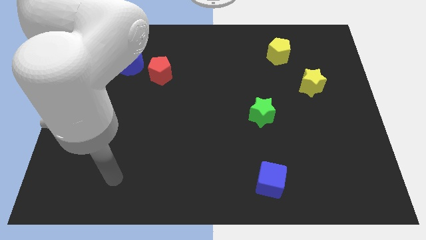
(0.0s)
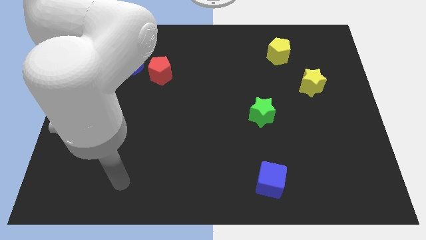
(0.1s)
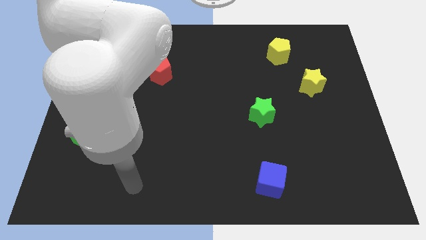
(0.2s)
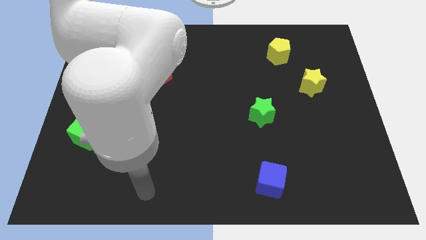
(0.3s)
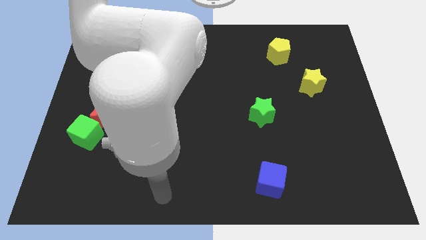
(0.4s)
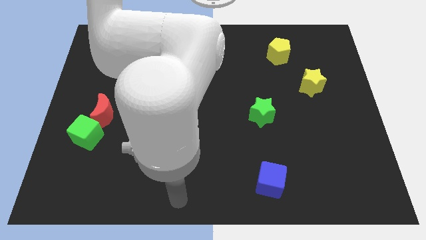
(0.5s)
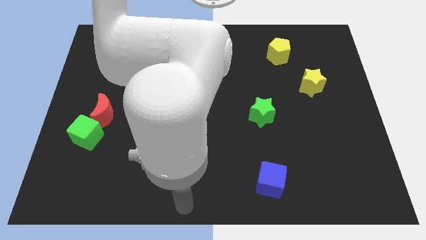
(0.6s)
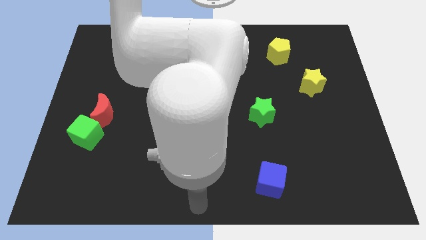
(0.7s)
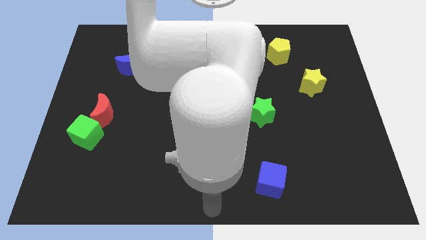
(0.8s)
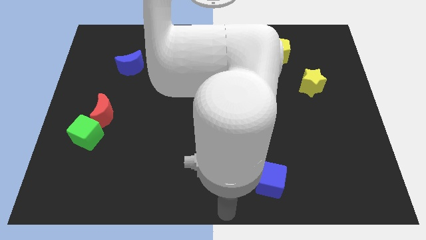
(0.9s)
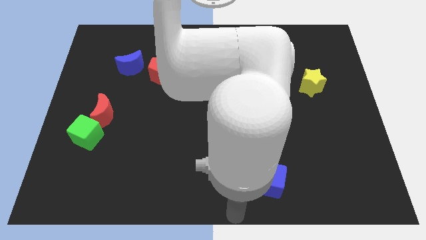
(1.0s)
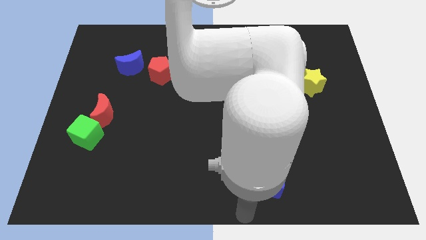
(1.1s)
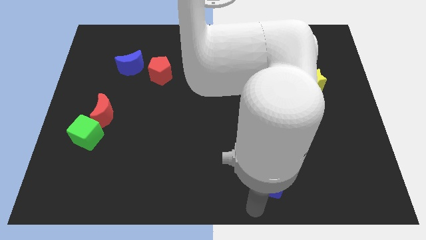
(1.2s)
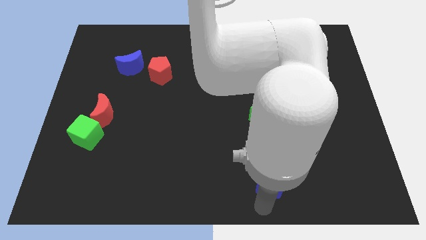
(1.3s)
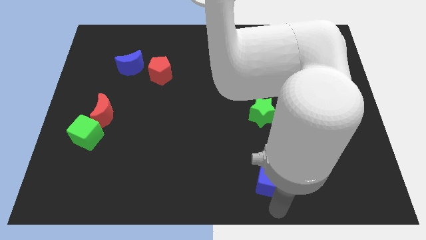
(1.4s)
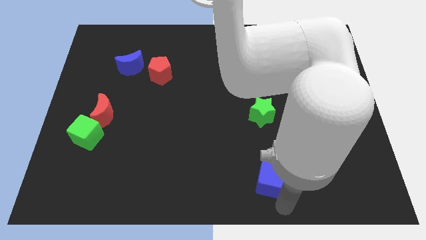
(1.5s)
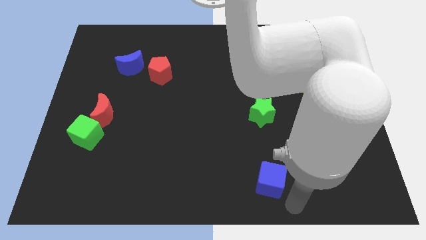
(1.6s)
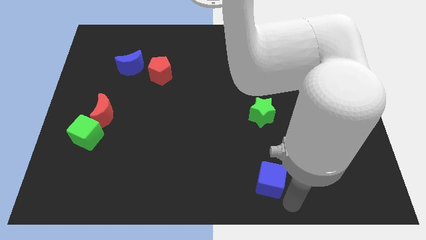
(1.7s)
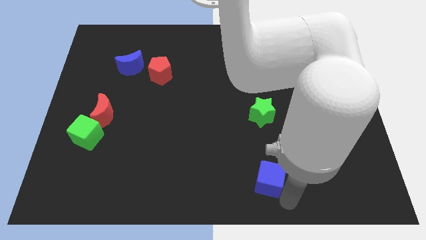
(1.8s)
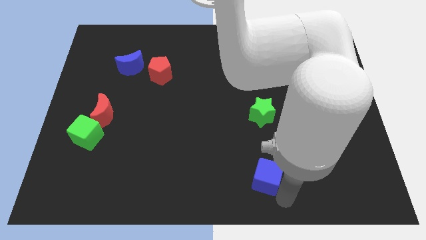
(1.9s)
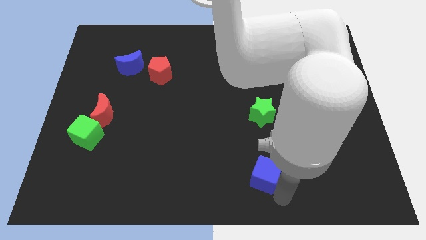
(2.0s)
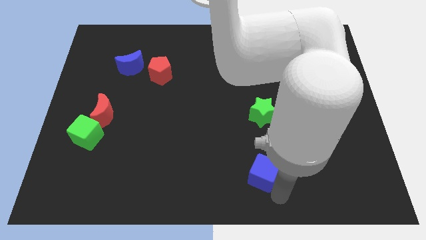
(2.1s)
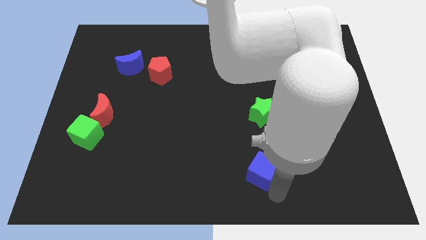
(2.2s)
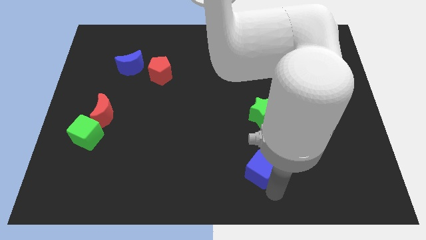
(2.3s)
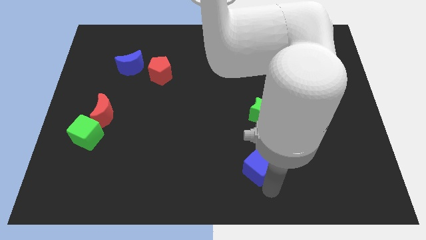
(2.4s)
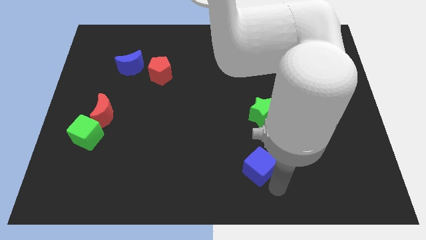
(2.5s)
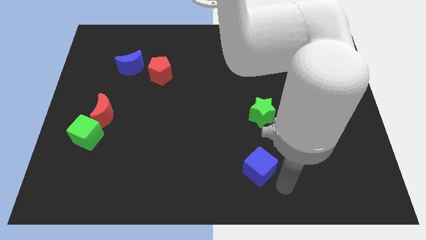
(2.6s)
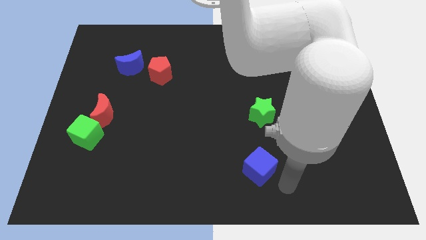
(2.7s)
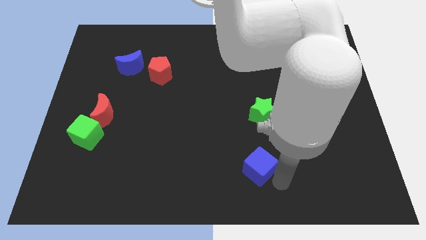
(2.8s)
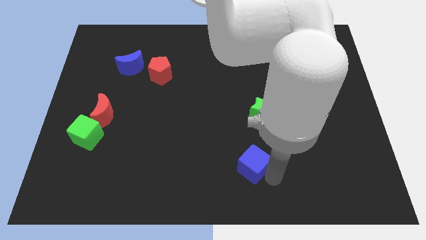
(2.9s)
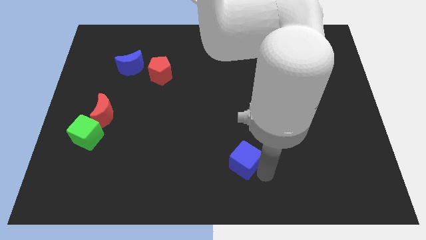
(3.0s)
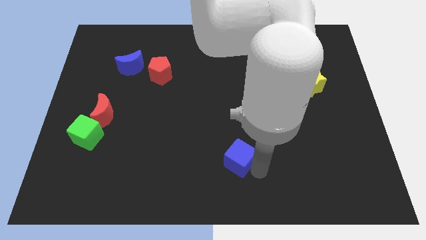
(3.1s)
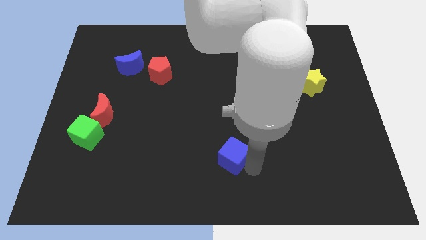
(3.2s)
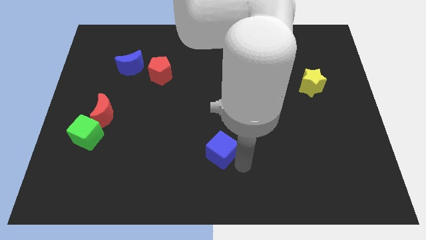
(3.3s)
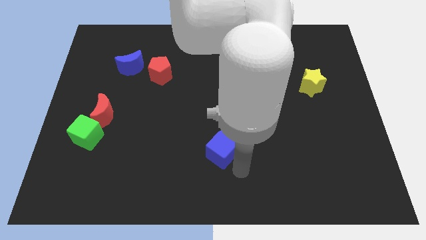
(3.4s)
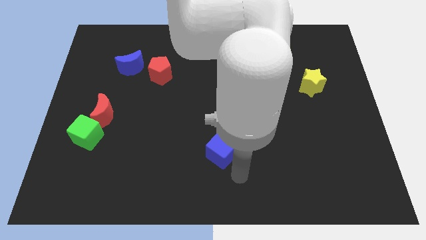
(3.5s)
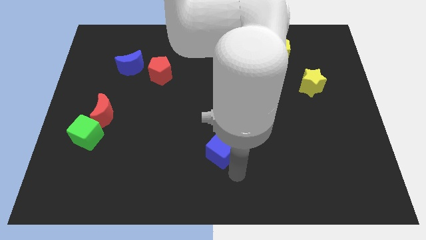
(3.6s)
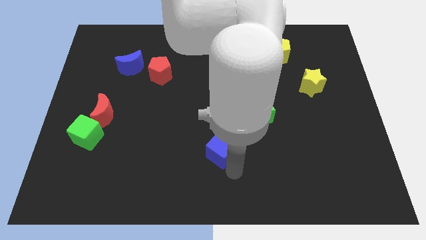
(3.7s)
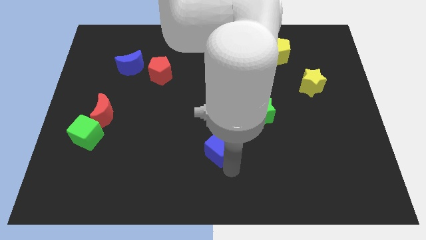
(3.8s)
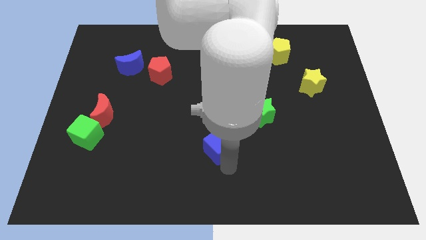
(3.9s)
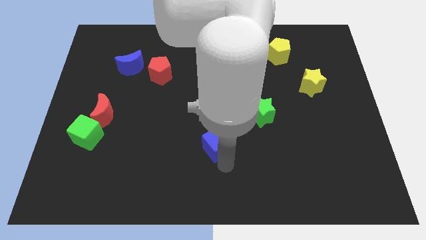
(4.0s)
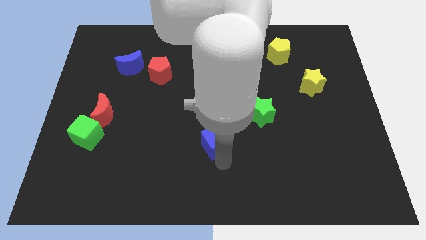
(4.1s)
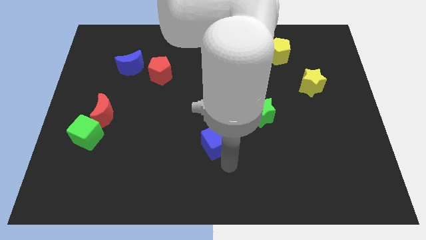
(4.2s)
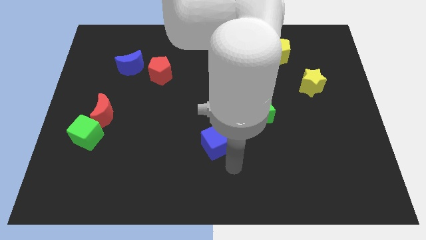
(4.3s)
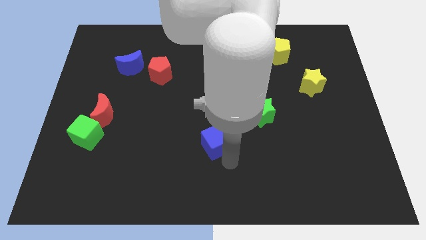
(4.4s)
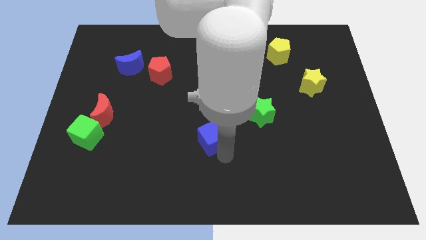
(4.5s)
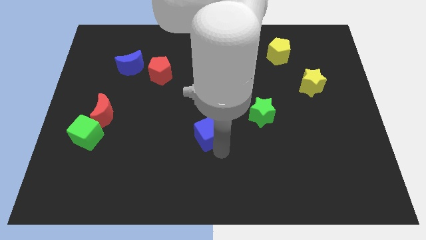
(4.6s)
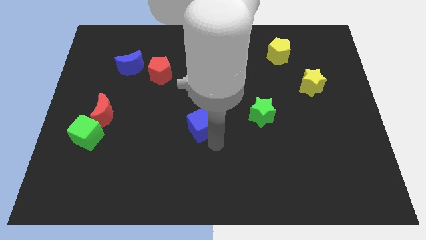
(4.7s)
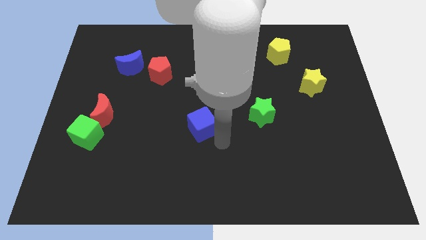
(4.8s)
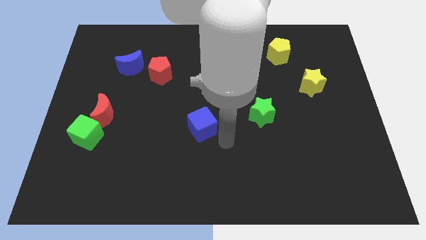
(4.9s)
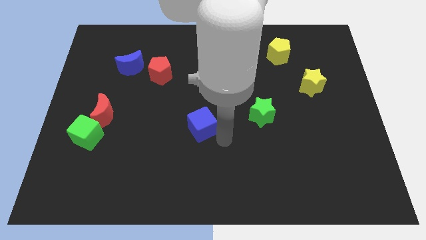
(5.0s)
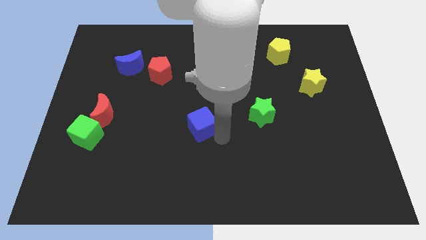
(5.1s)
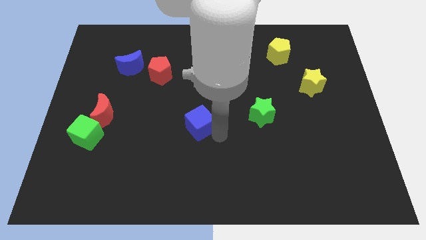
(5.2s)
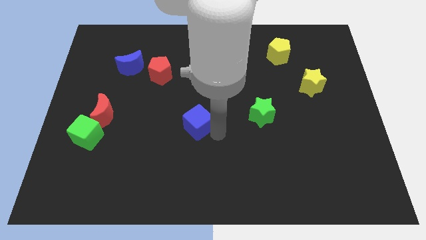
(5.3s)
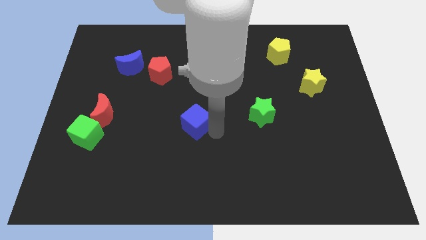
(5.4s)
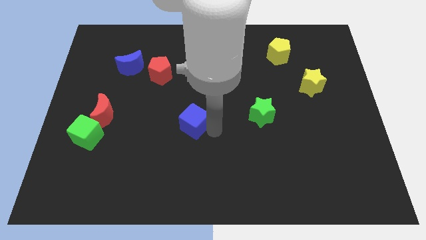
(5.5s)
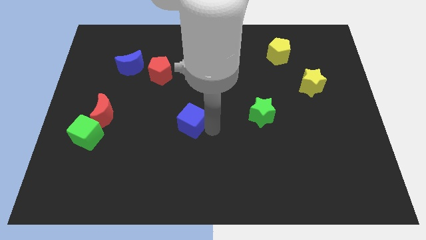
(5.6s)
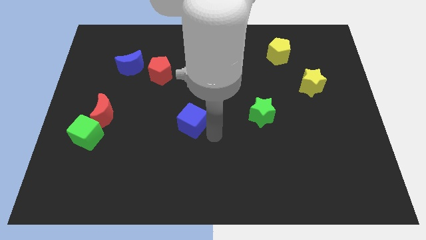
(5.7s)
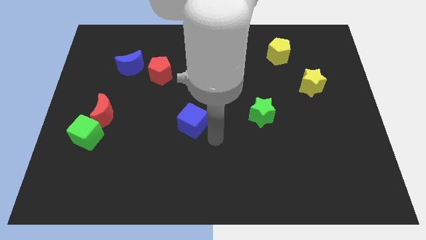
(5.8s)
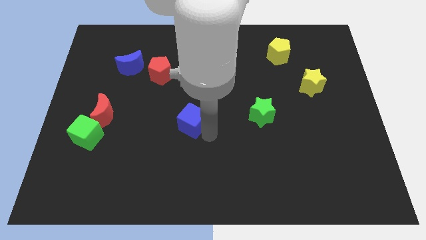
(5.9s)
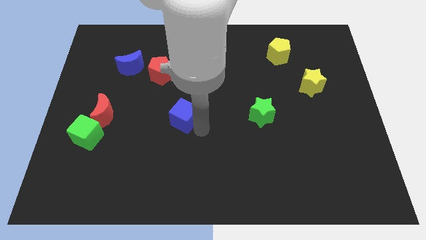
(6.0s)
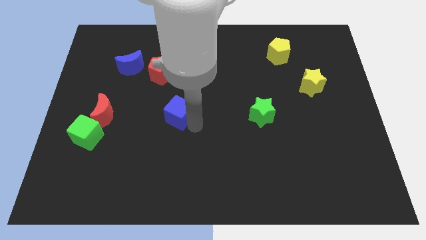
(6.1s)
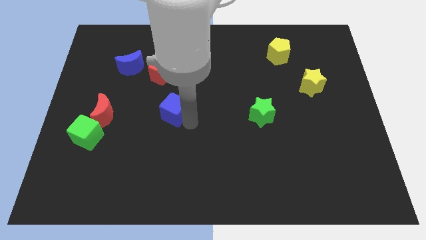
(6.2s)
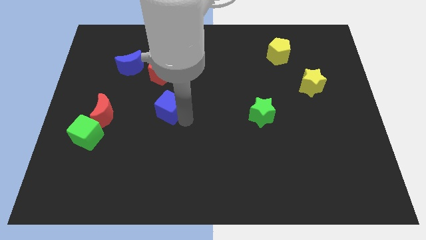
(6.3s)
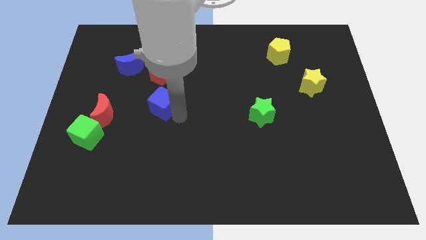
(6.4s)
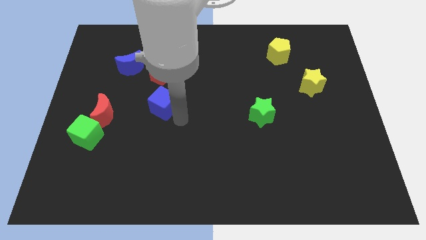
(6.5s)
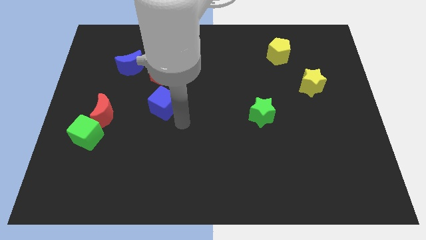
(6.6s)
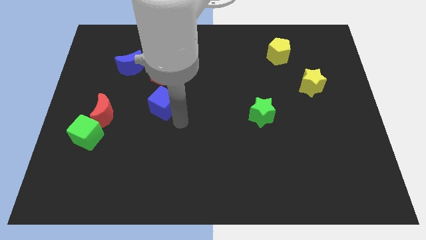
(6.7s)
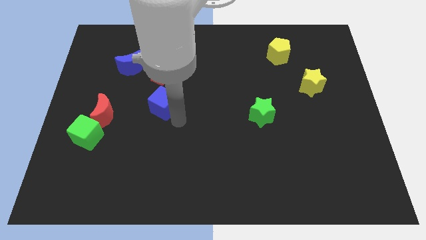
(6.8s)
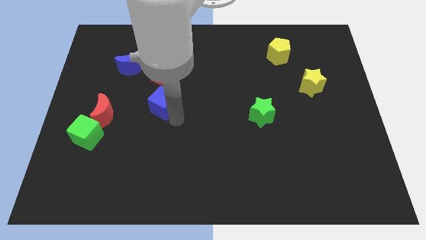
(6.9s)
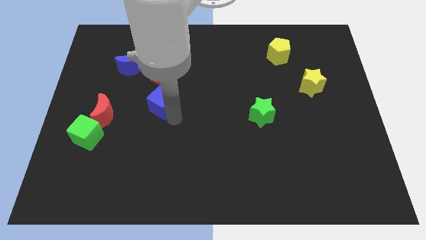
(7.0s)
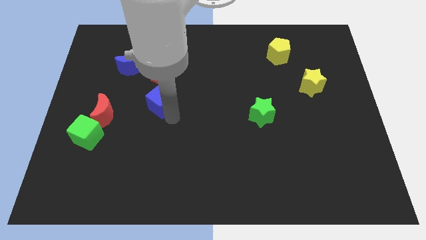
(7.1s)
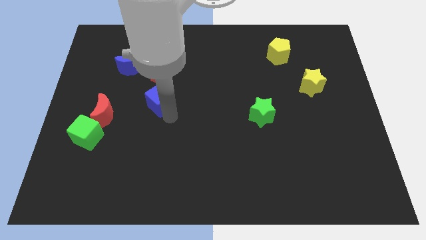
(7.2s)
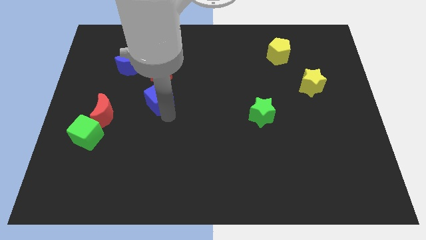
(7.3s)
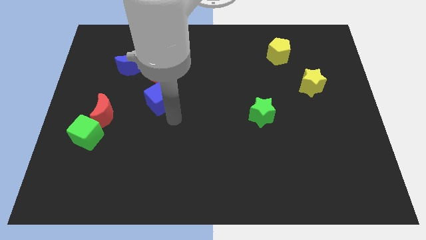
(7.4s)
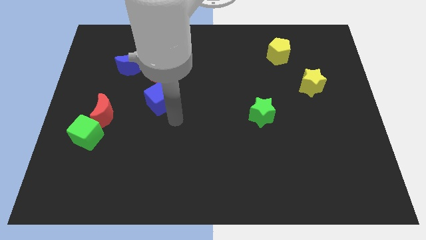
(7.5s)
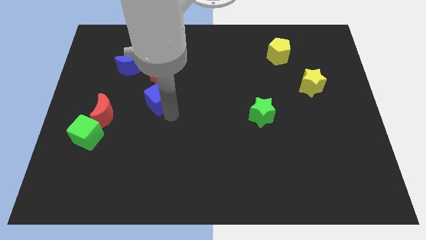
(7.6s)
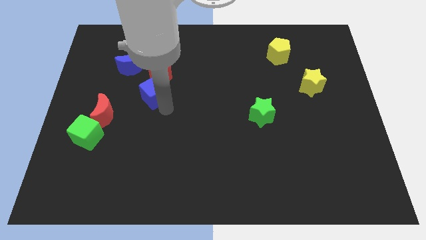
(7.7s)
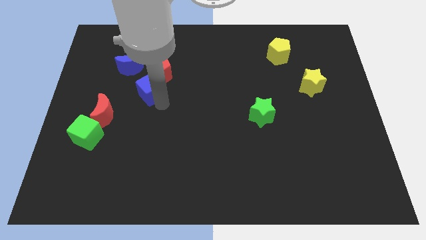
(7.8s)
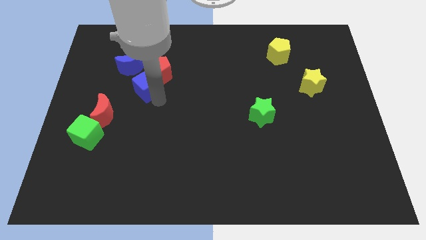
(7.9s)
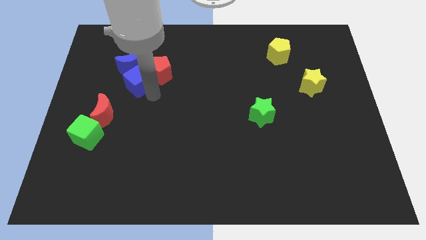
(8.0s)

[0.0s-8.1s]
slide the blue cube next to the blue moon
